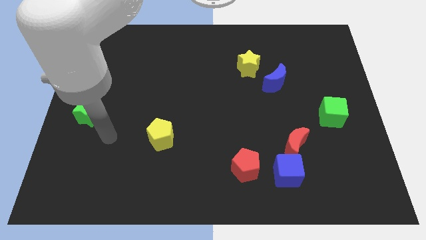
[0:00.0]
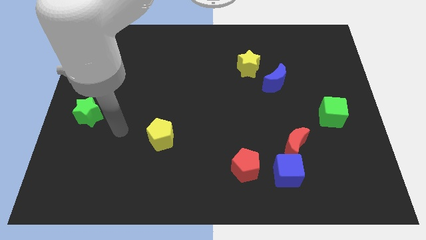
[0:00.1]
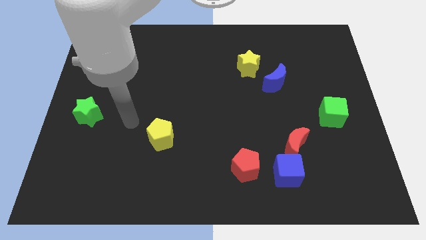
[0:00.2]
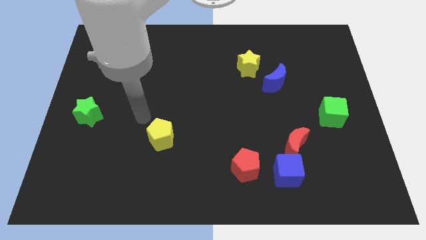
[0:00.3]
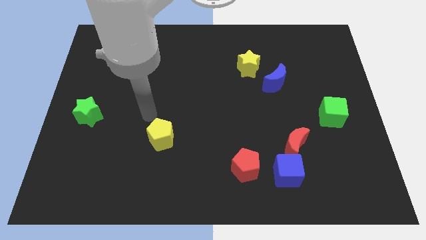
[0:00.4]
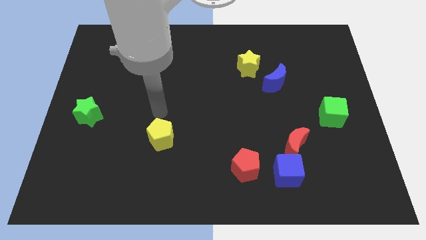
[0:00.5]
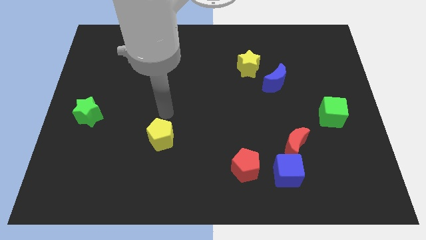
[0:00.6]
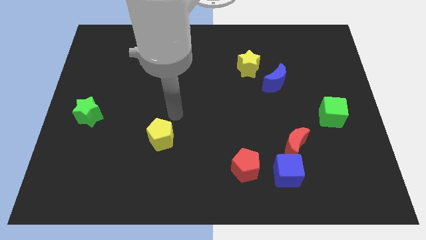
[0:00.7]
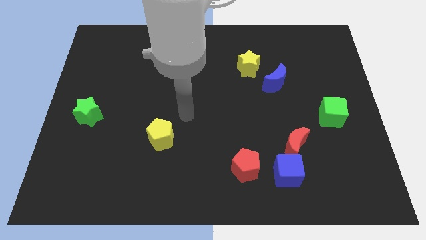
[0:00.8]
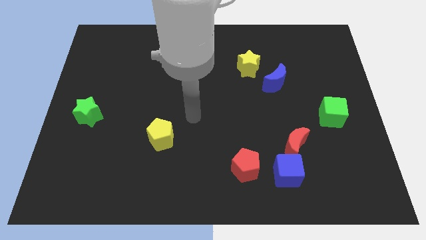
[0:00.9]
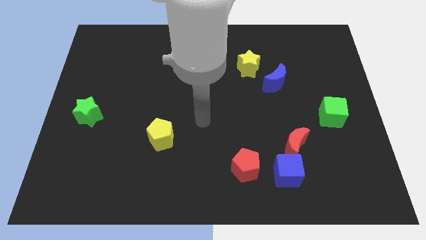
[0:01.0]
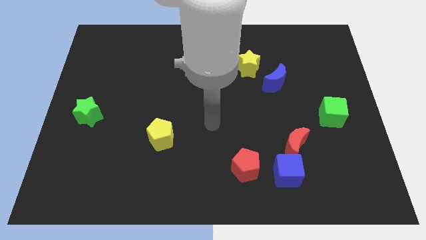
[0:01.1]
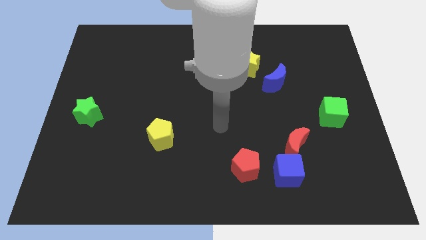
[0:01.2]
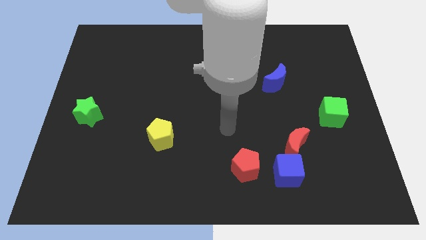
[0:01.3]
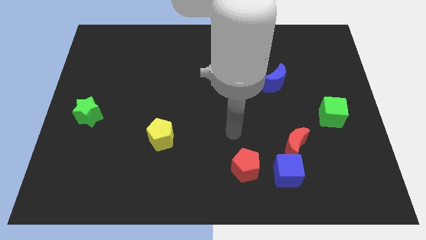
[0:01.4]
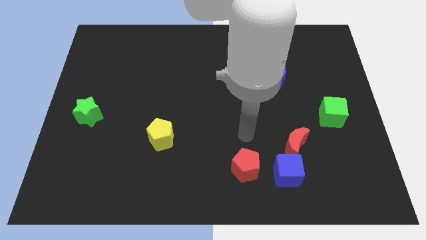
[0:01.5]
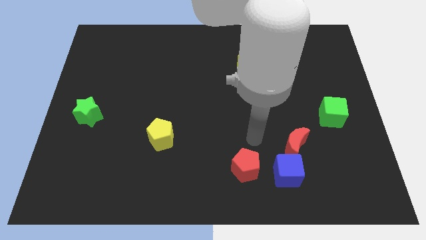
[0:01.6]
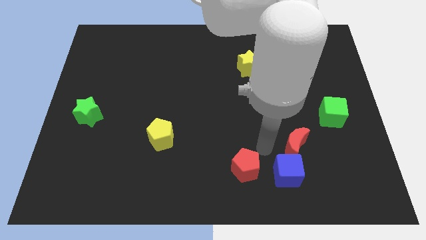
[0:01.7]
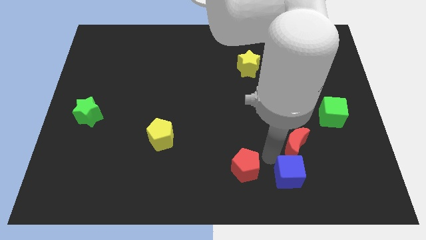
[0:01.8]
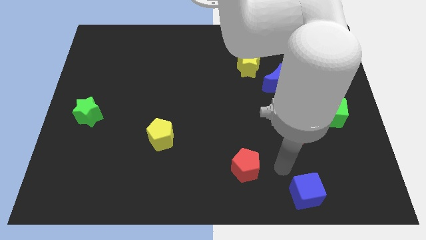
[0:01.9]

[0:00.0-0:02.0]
separate the red moon from the blue cube

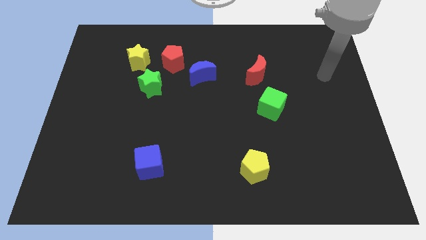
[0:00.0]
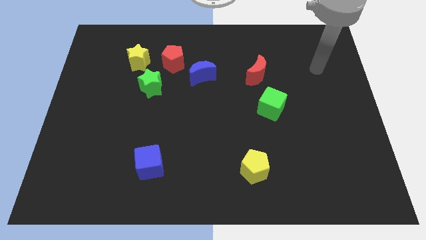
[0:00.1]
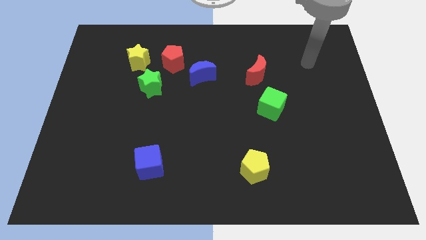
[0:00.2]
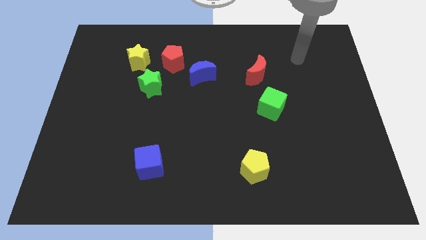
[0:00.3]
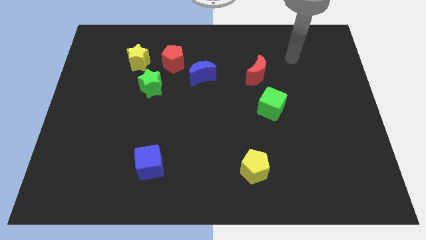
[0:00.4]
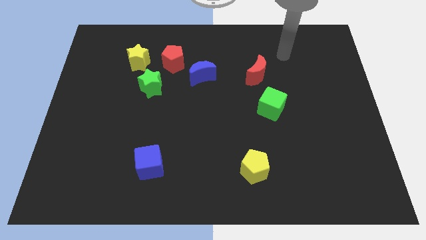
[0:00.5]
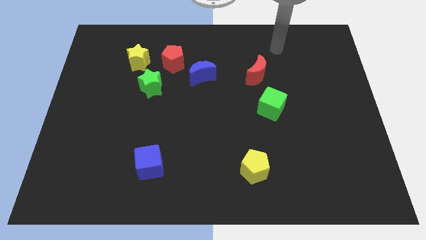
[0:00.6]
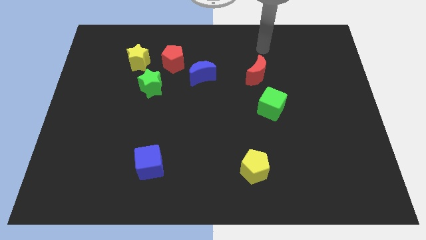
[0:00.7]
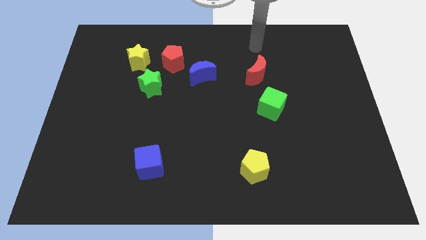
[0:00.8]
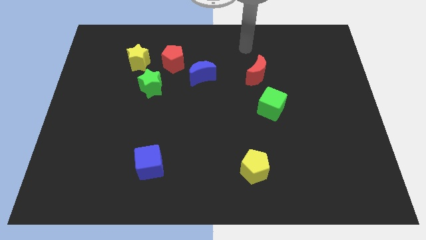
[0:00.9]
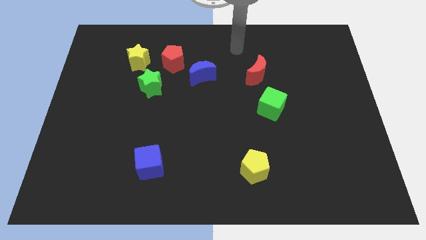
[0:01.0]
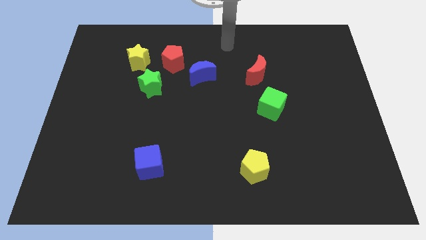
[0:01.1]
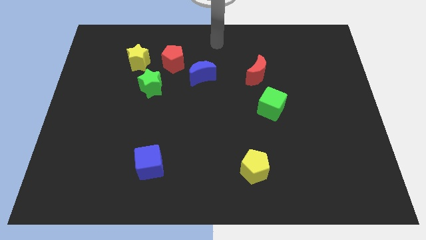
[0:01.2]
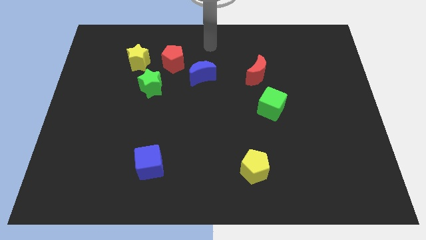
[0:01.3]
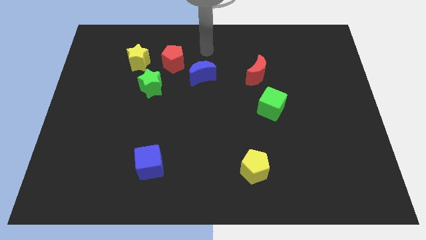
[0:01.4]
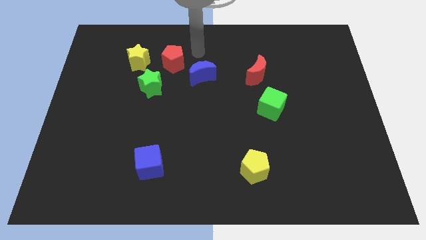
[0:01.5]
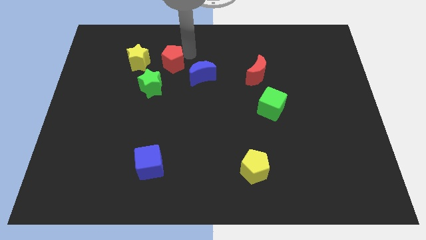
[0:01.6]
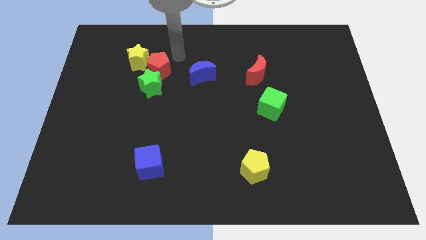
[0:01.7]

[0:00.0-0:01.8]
pull the blue moon apart from the red pentagon

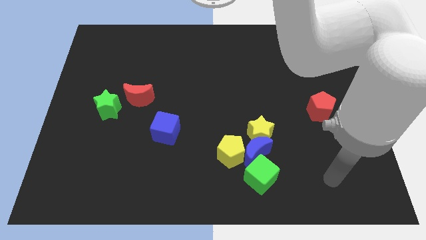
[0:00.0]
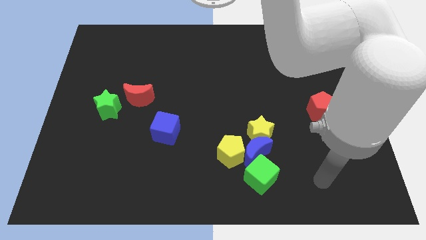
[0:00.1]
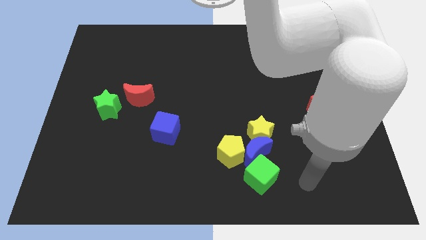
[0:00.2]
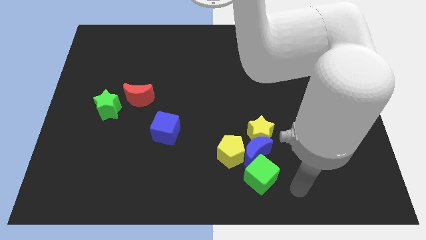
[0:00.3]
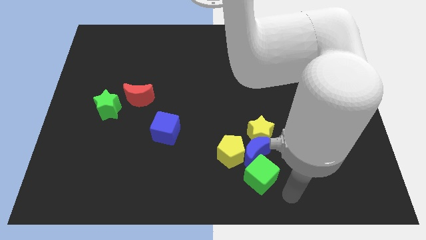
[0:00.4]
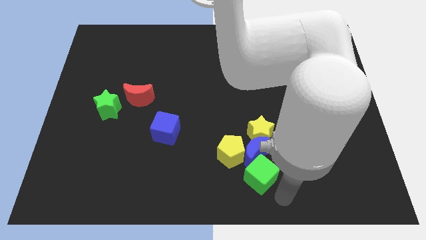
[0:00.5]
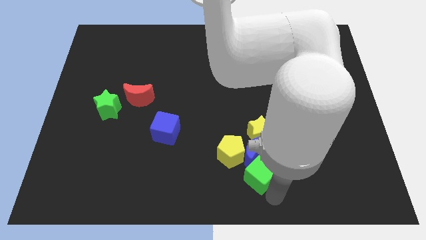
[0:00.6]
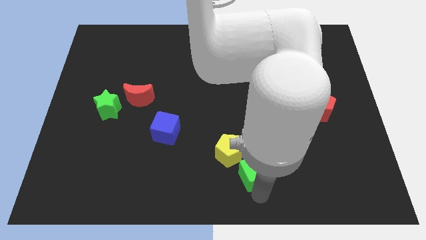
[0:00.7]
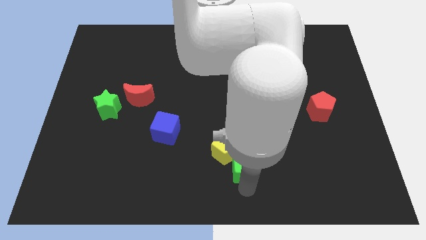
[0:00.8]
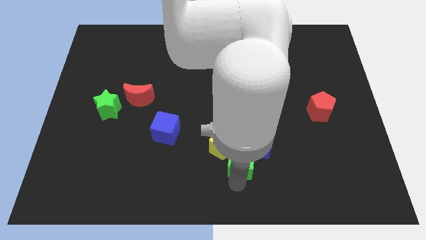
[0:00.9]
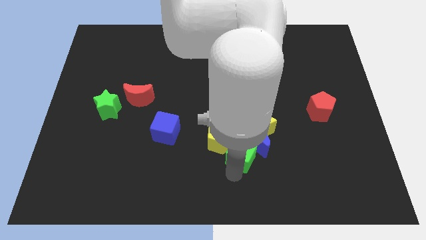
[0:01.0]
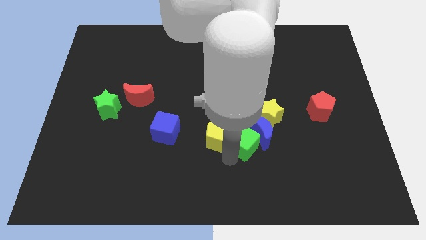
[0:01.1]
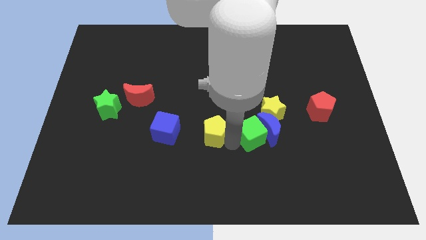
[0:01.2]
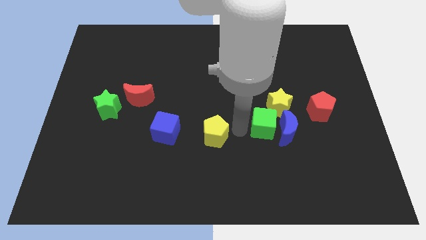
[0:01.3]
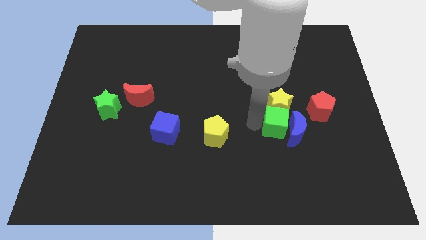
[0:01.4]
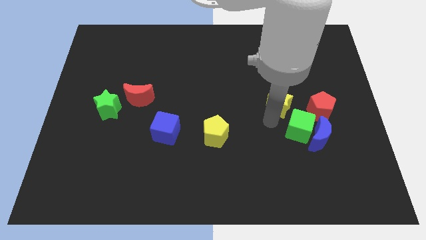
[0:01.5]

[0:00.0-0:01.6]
separate the blue moon from the group of blocks

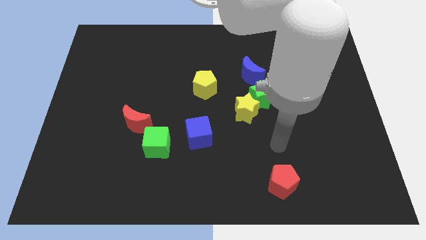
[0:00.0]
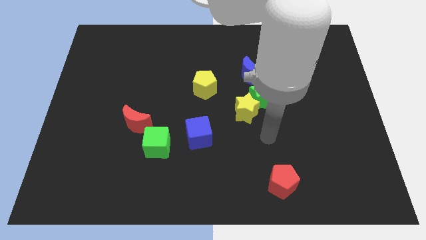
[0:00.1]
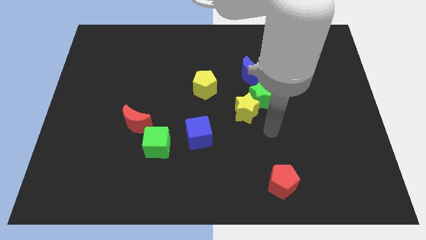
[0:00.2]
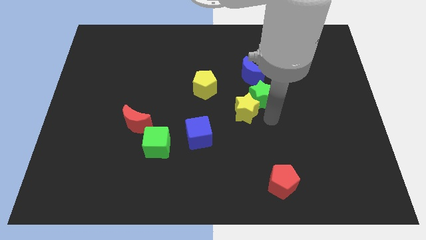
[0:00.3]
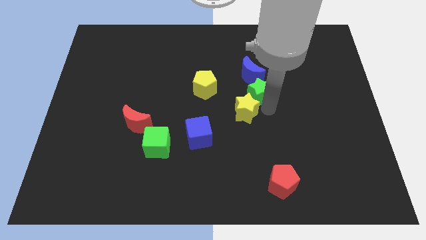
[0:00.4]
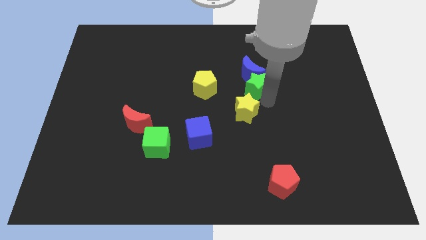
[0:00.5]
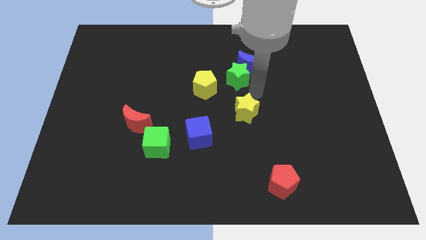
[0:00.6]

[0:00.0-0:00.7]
separate the yellow star from the green star

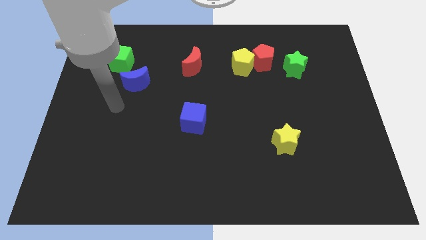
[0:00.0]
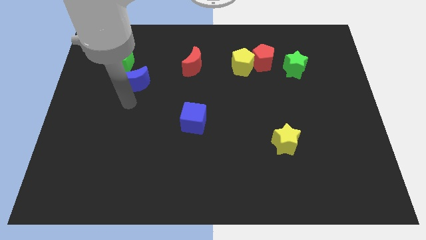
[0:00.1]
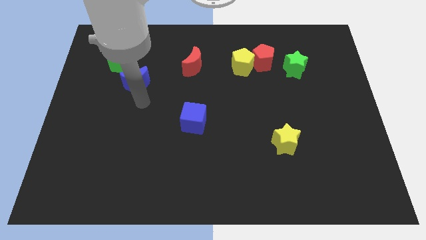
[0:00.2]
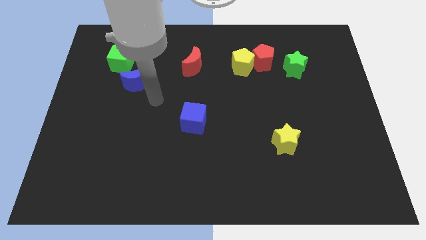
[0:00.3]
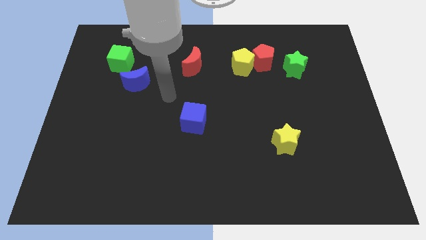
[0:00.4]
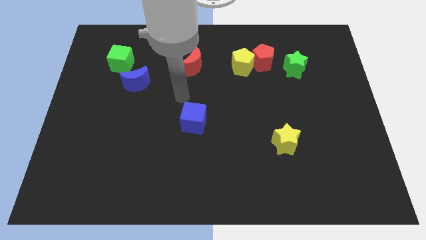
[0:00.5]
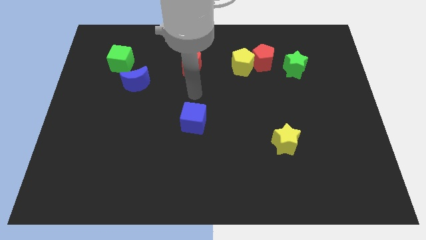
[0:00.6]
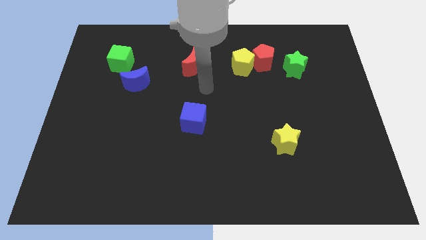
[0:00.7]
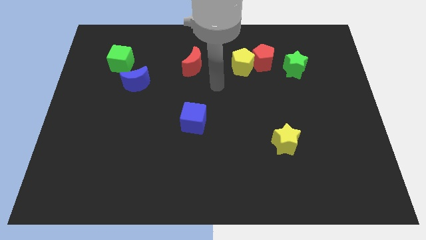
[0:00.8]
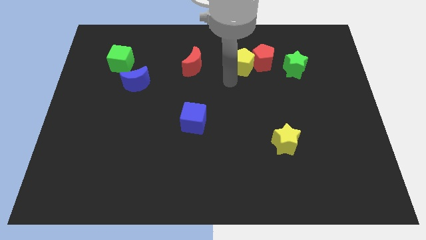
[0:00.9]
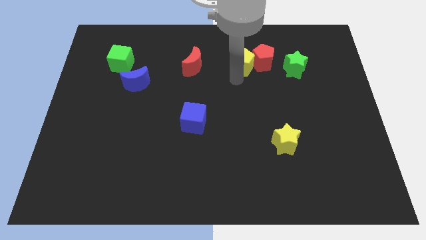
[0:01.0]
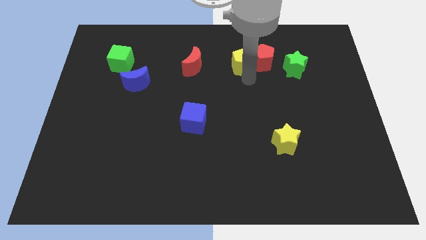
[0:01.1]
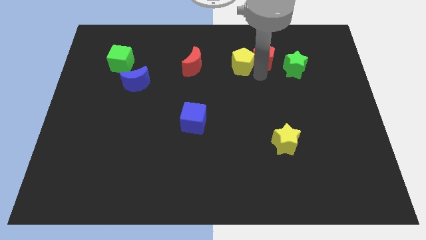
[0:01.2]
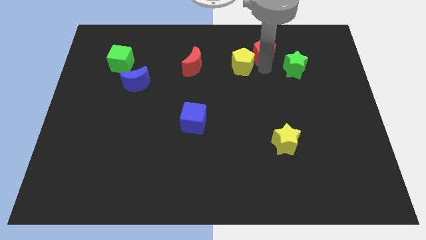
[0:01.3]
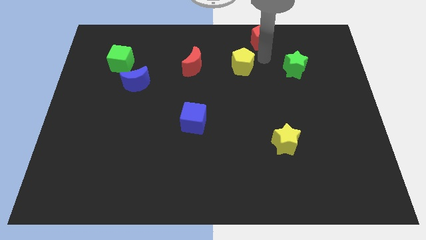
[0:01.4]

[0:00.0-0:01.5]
move the yellow pentagon away from the red pentagon

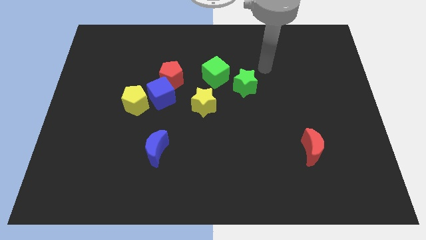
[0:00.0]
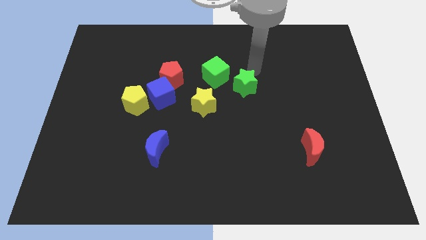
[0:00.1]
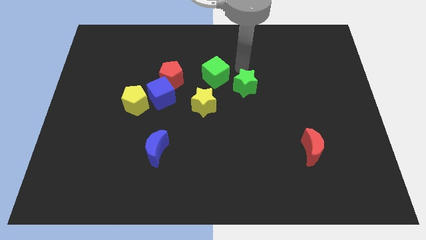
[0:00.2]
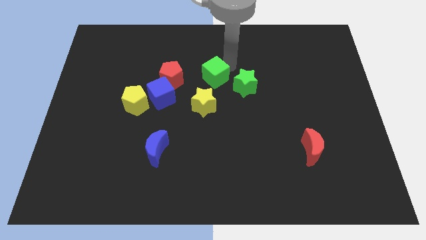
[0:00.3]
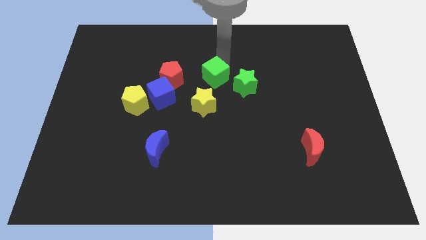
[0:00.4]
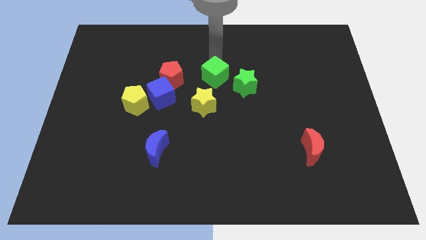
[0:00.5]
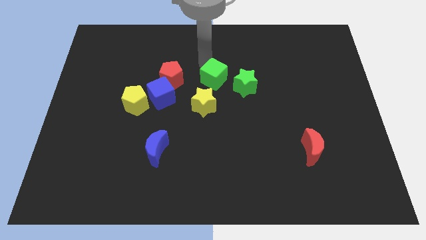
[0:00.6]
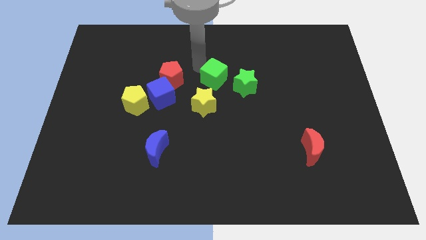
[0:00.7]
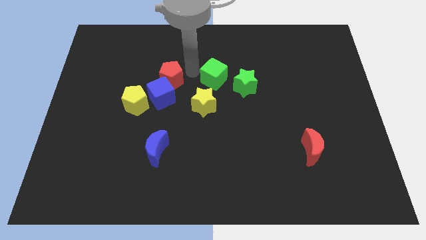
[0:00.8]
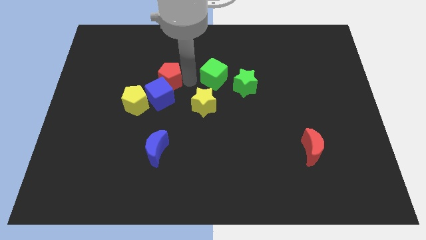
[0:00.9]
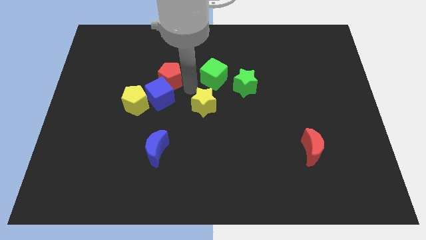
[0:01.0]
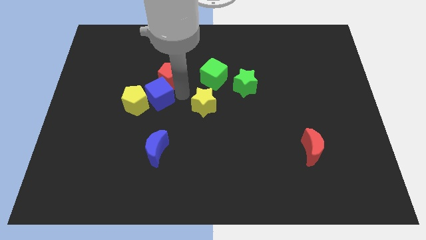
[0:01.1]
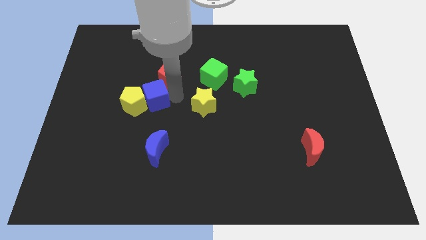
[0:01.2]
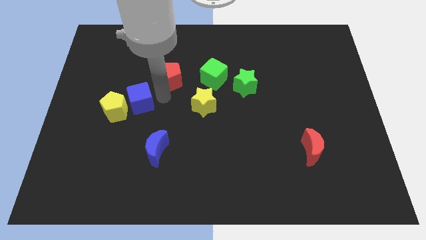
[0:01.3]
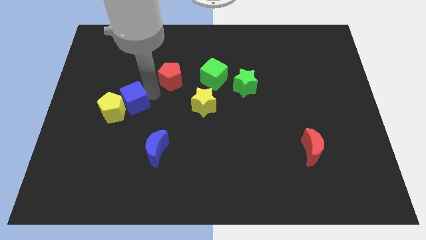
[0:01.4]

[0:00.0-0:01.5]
move the red pentagon away from the blue cube

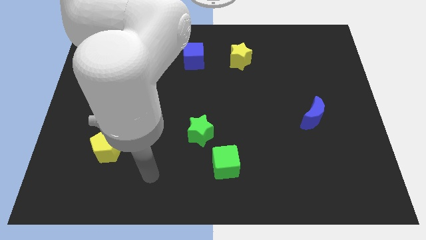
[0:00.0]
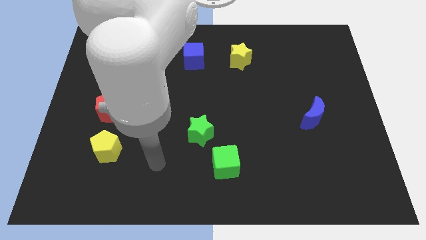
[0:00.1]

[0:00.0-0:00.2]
move the green cube away from the green star
